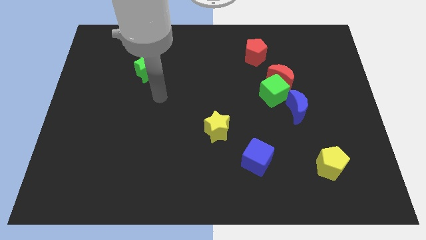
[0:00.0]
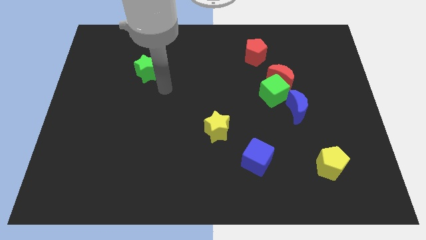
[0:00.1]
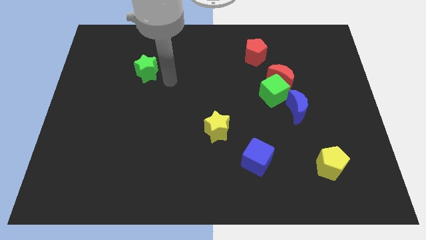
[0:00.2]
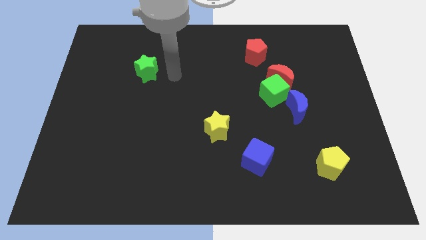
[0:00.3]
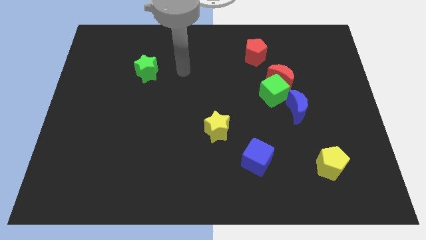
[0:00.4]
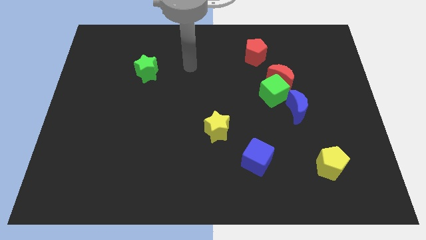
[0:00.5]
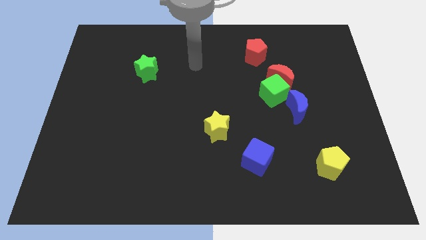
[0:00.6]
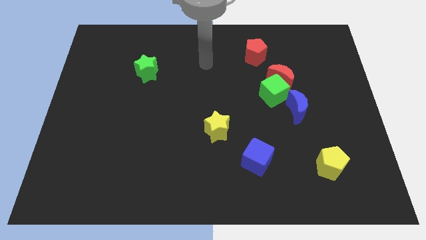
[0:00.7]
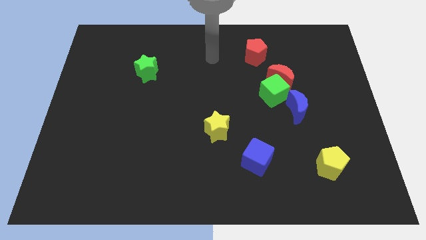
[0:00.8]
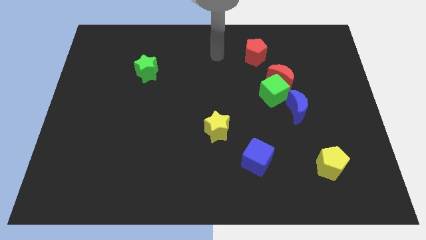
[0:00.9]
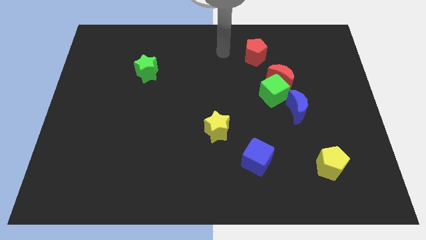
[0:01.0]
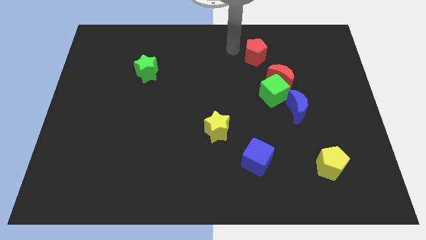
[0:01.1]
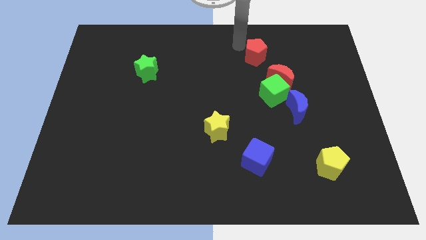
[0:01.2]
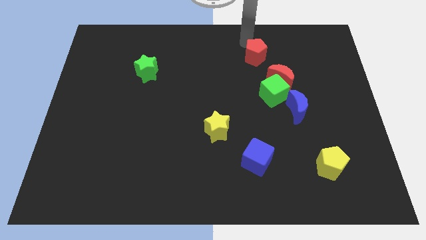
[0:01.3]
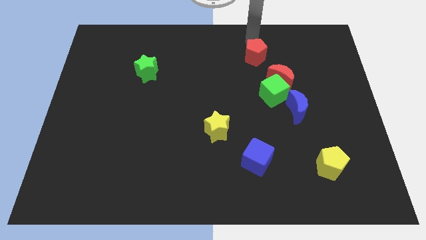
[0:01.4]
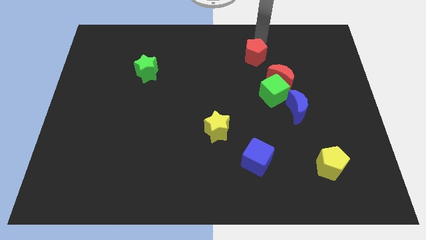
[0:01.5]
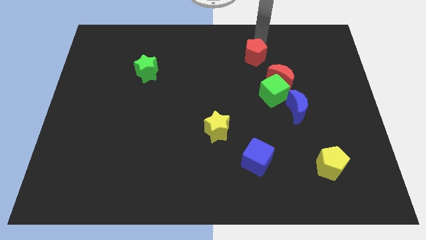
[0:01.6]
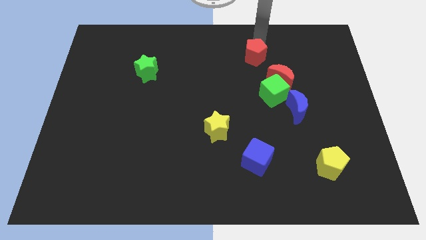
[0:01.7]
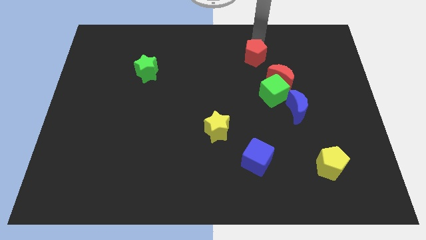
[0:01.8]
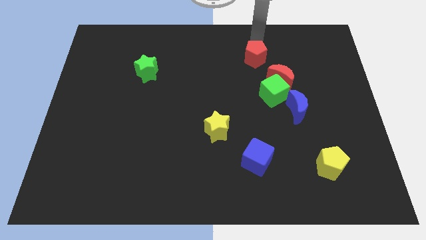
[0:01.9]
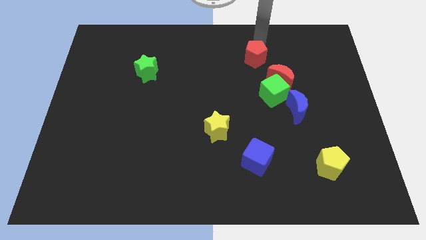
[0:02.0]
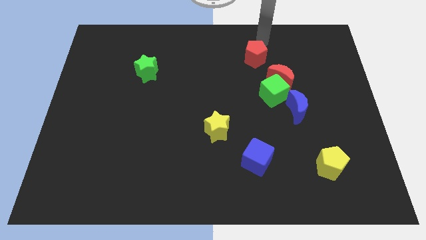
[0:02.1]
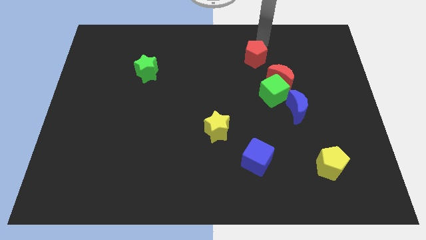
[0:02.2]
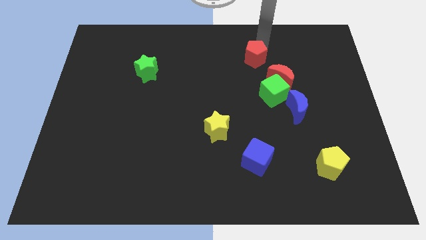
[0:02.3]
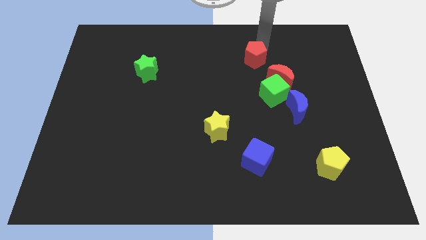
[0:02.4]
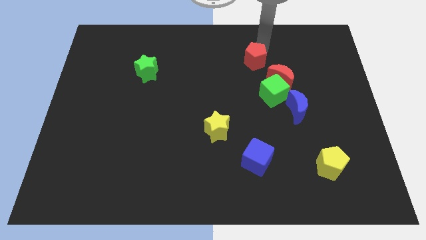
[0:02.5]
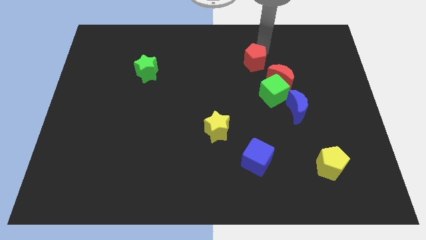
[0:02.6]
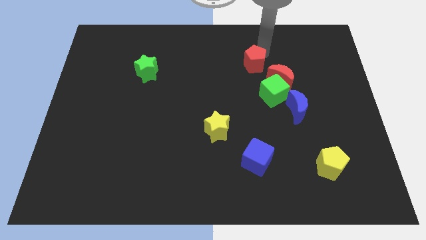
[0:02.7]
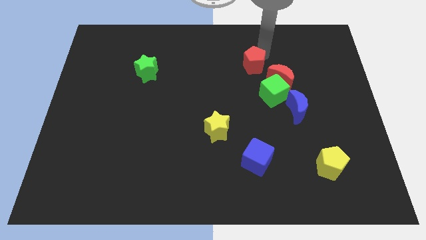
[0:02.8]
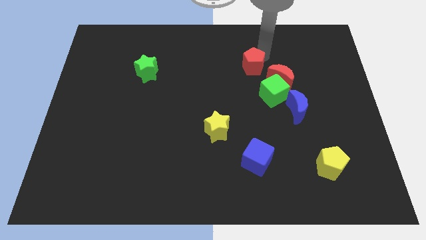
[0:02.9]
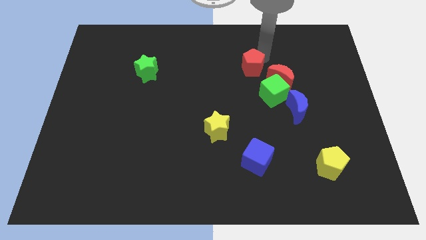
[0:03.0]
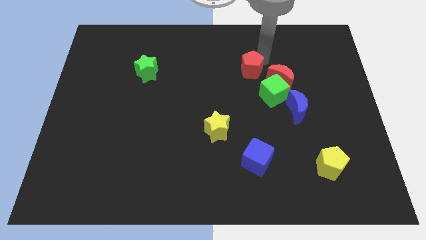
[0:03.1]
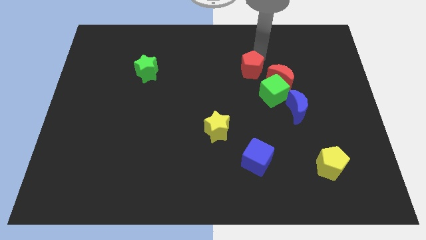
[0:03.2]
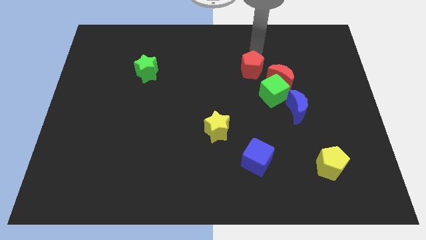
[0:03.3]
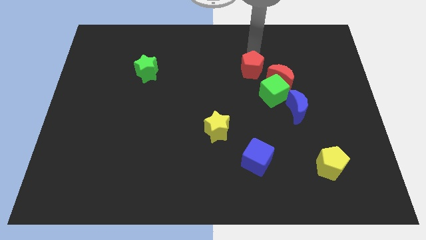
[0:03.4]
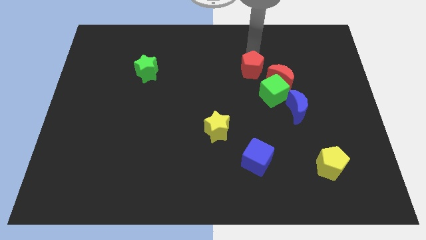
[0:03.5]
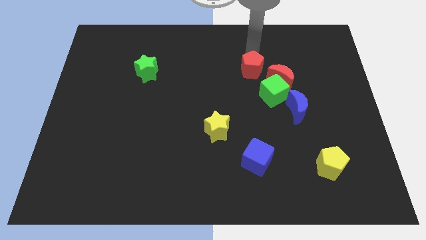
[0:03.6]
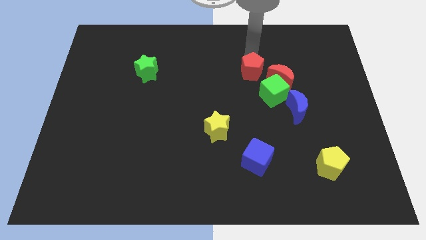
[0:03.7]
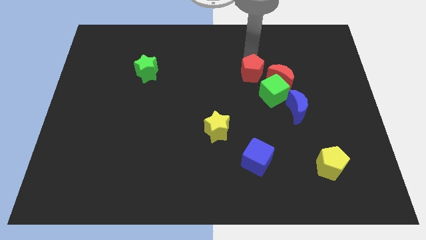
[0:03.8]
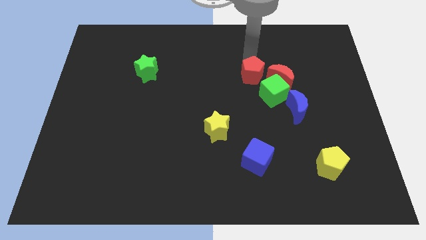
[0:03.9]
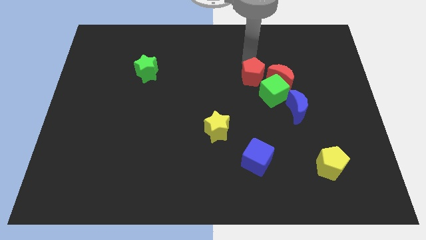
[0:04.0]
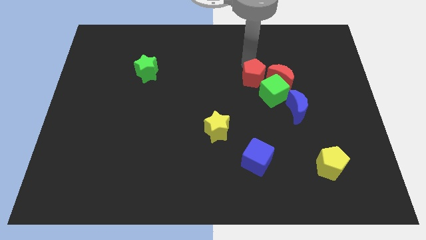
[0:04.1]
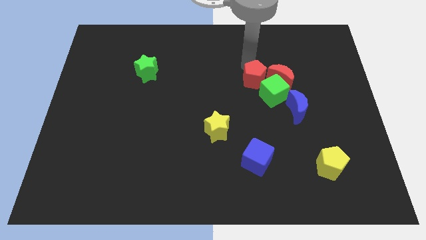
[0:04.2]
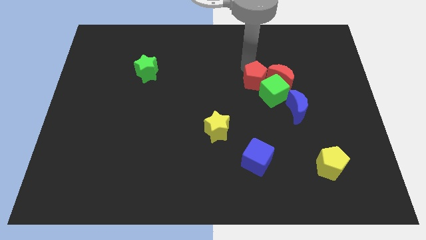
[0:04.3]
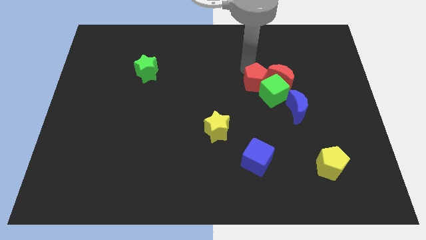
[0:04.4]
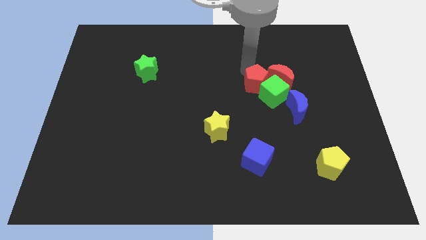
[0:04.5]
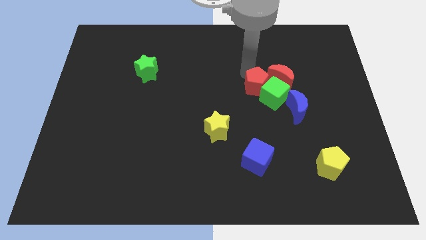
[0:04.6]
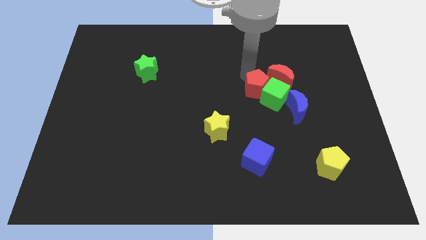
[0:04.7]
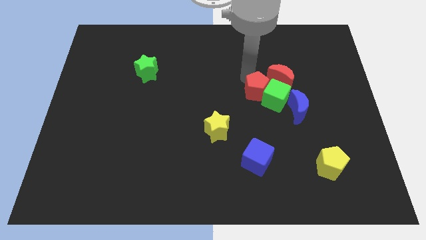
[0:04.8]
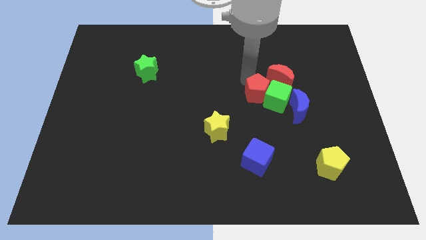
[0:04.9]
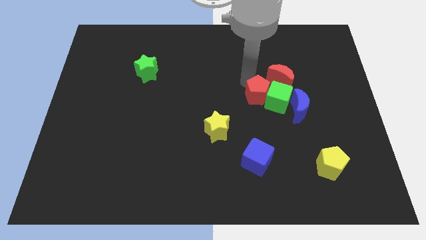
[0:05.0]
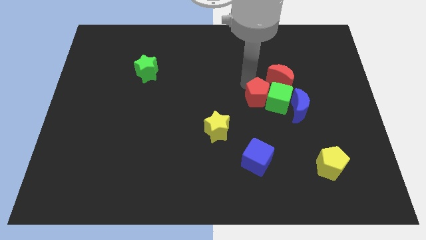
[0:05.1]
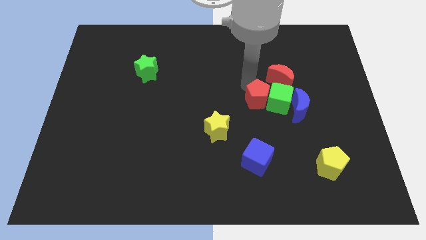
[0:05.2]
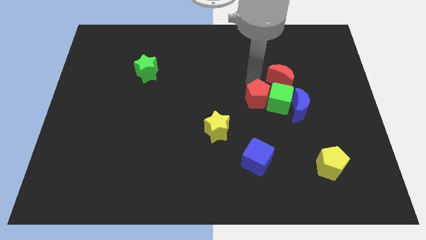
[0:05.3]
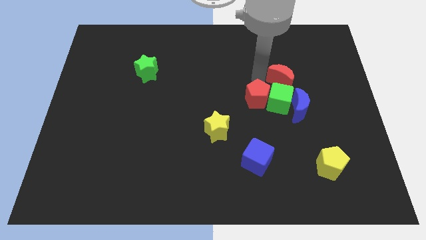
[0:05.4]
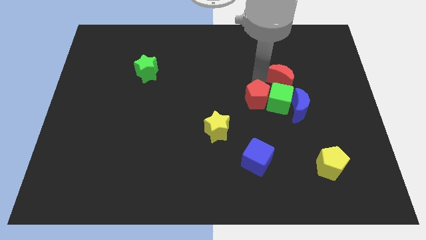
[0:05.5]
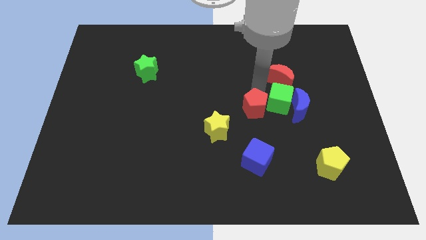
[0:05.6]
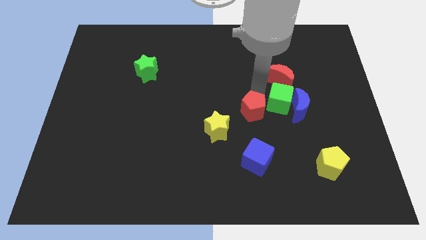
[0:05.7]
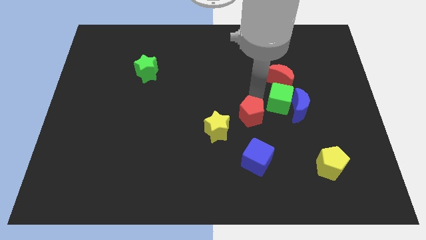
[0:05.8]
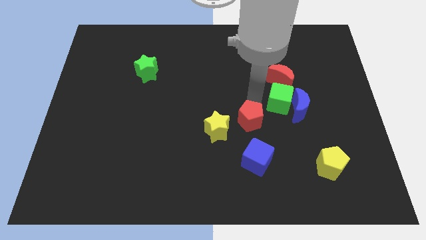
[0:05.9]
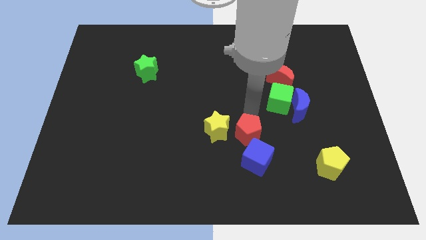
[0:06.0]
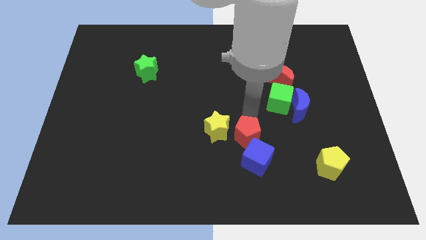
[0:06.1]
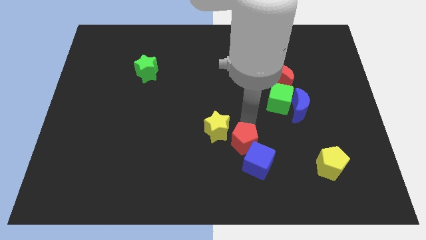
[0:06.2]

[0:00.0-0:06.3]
push the red pentagon next to the blue cube
